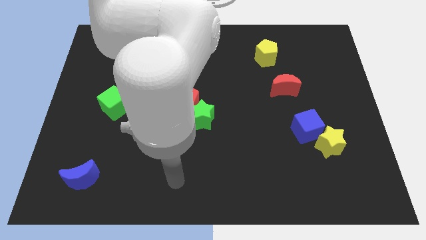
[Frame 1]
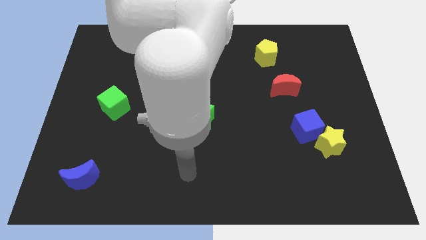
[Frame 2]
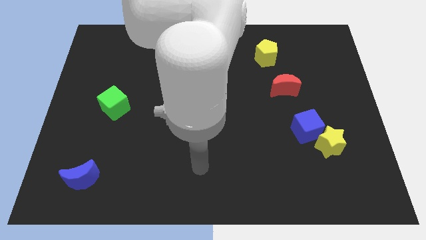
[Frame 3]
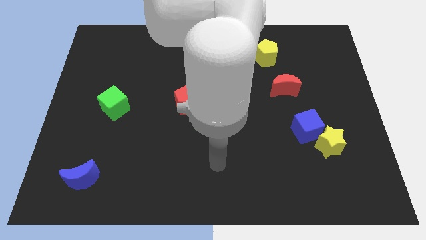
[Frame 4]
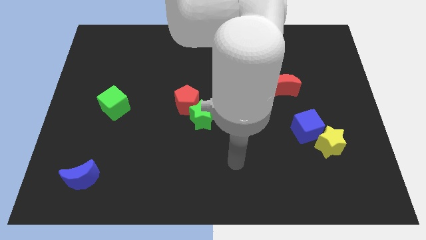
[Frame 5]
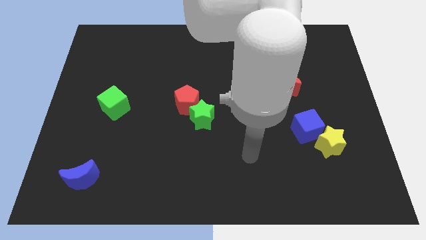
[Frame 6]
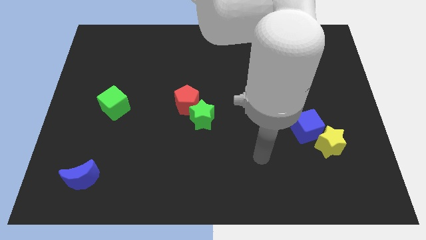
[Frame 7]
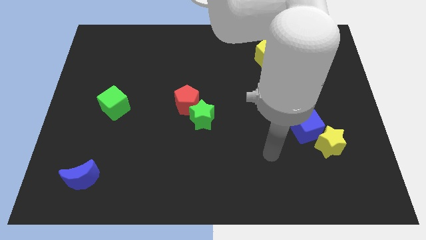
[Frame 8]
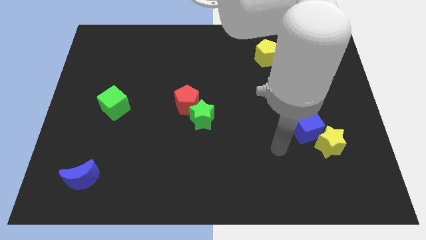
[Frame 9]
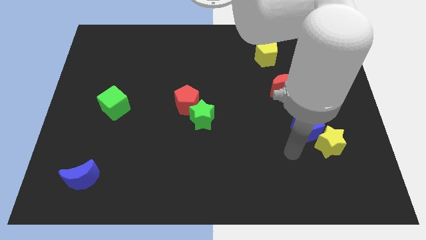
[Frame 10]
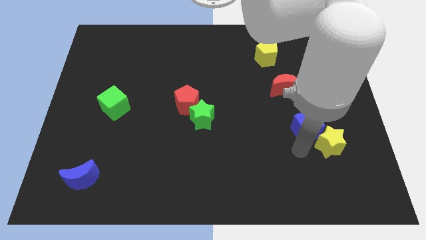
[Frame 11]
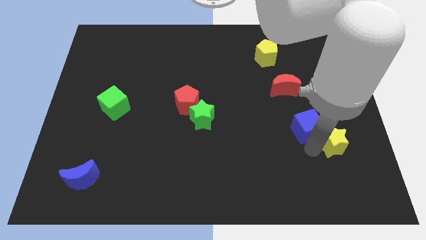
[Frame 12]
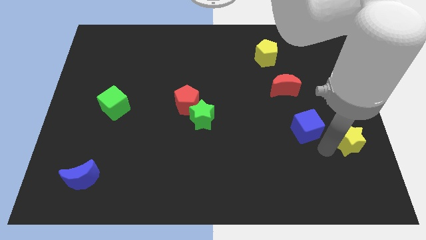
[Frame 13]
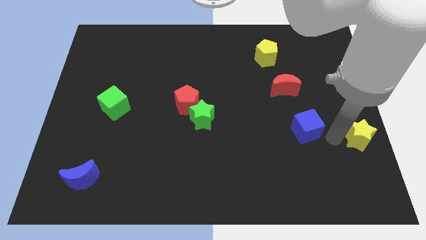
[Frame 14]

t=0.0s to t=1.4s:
move the blue cube away from the yellow star

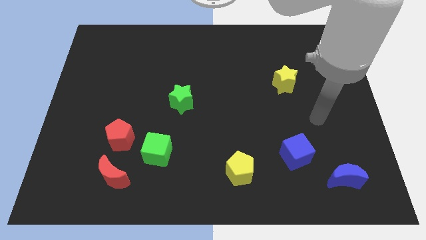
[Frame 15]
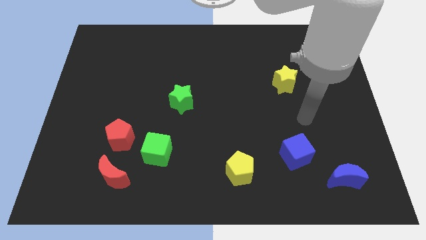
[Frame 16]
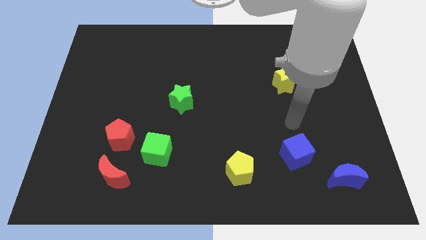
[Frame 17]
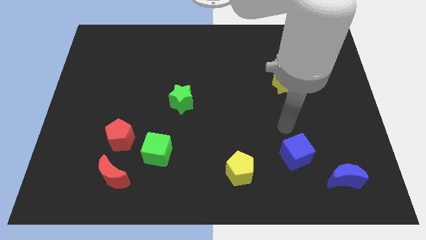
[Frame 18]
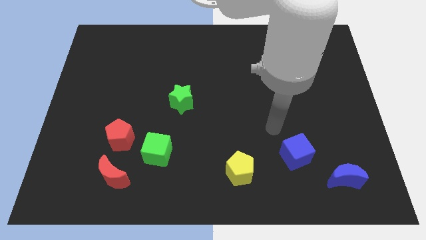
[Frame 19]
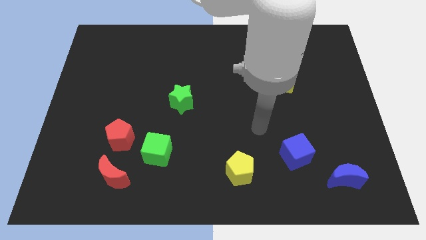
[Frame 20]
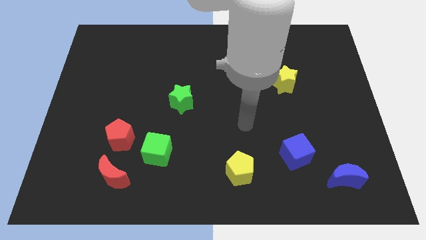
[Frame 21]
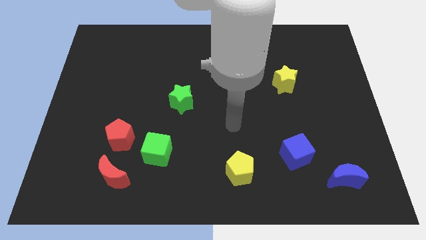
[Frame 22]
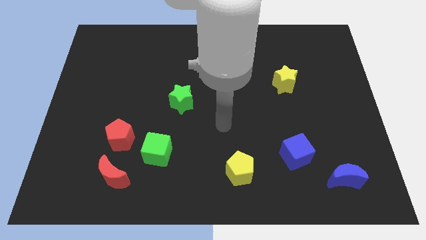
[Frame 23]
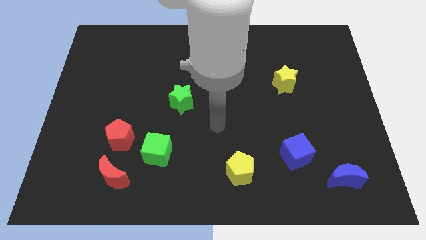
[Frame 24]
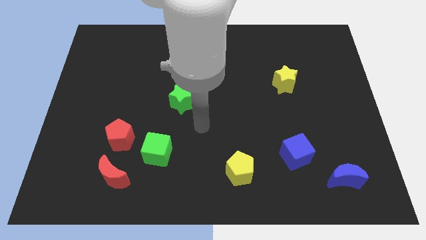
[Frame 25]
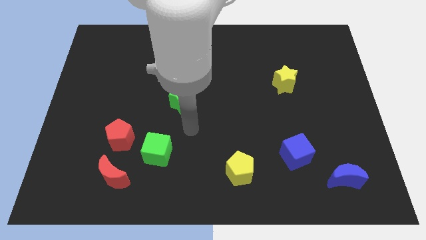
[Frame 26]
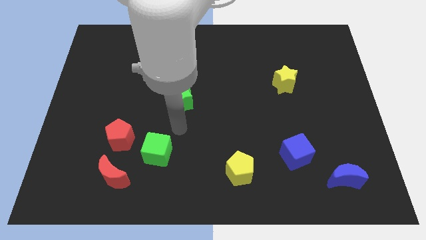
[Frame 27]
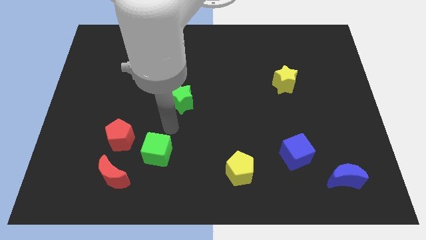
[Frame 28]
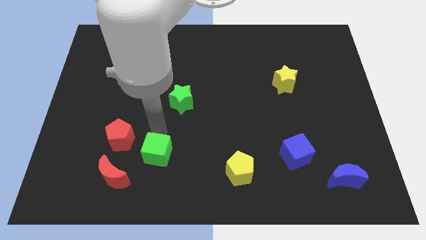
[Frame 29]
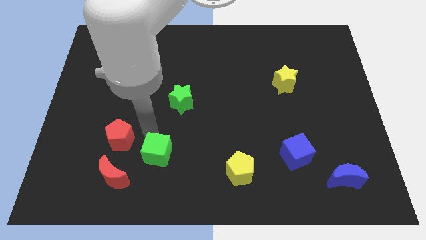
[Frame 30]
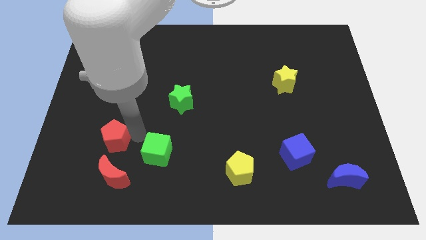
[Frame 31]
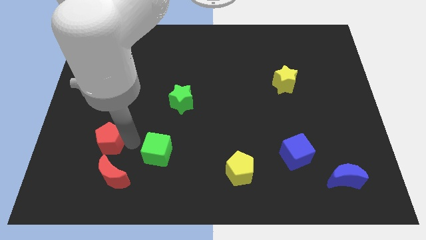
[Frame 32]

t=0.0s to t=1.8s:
move the green cube away from the red pentagon

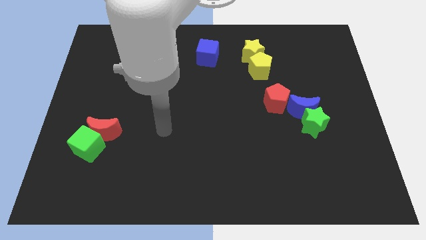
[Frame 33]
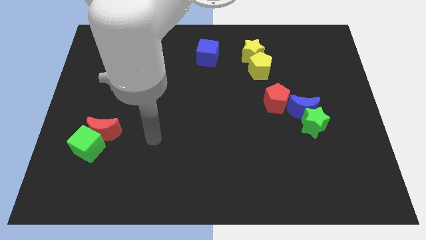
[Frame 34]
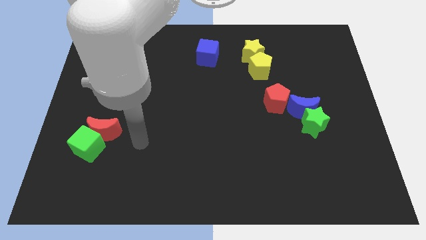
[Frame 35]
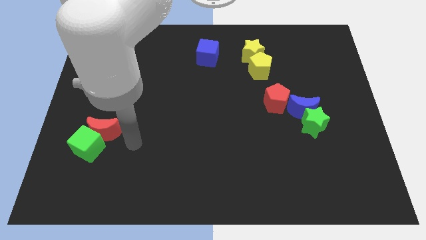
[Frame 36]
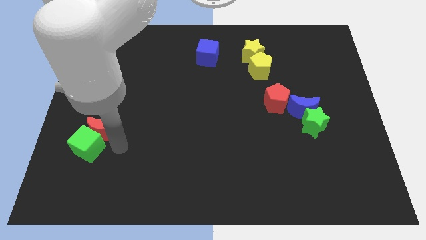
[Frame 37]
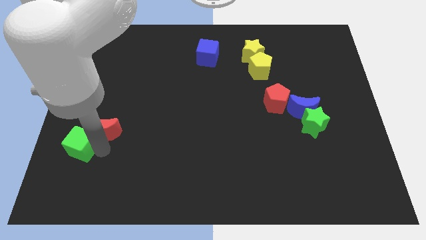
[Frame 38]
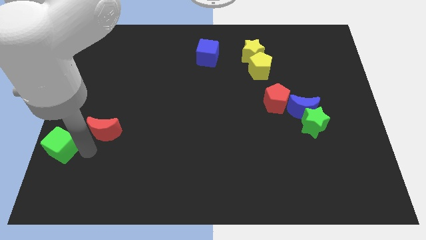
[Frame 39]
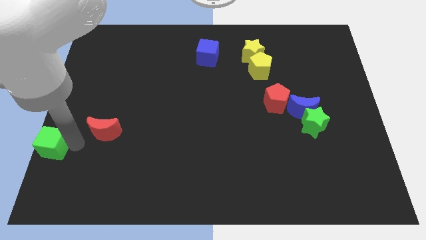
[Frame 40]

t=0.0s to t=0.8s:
move the red moon away from the green cube

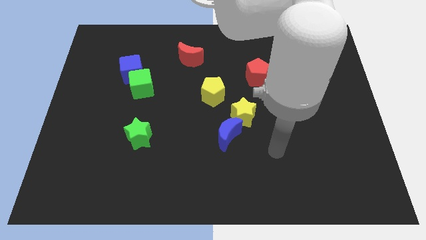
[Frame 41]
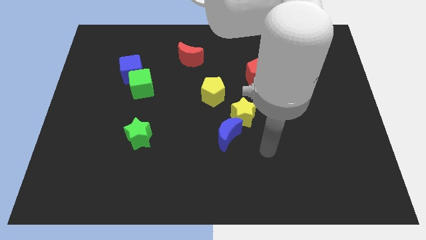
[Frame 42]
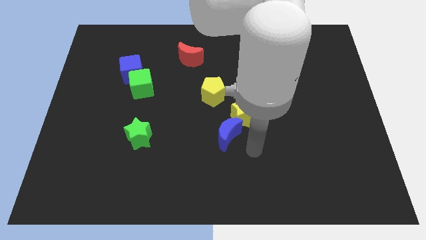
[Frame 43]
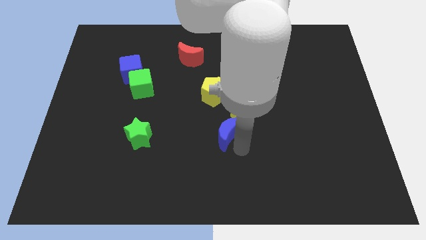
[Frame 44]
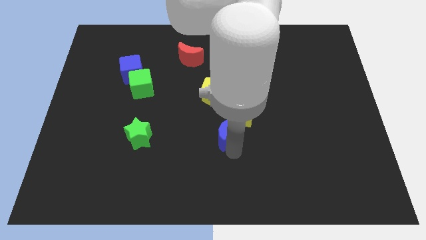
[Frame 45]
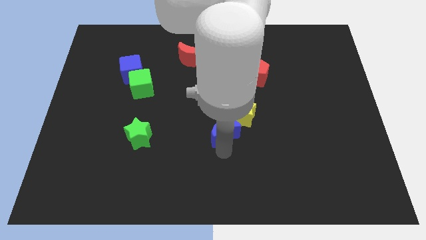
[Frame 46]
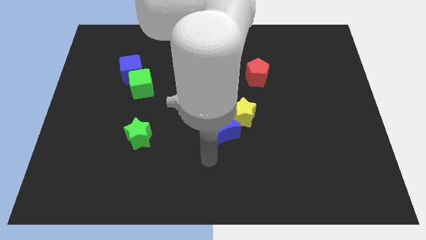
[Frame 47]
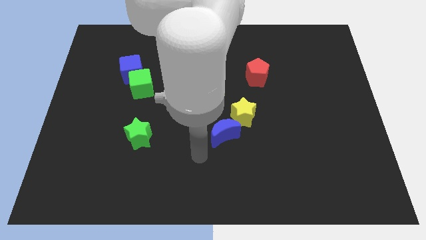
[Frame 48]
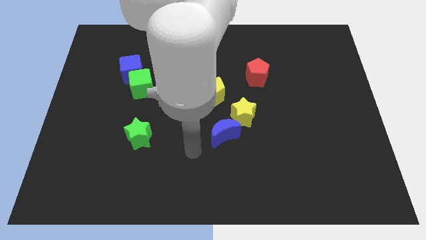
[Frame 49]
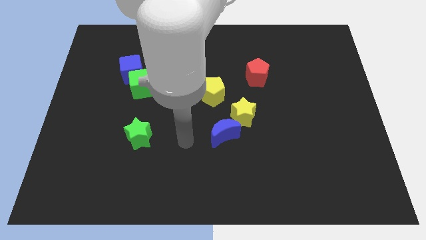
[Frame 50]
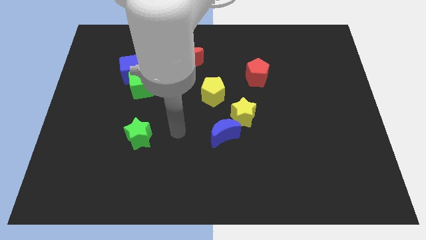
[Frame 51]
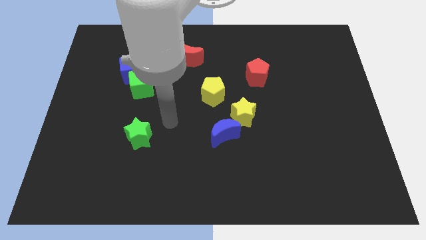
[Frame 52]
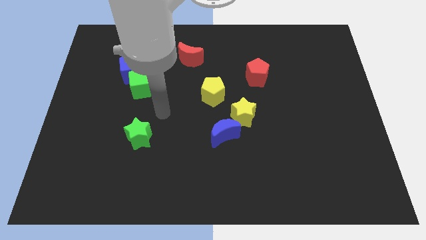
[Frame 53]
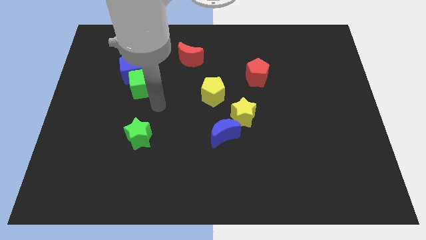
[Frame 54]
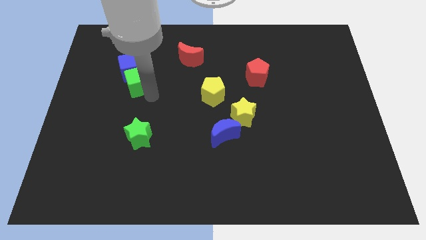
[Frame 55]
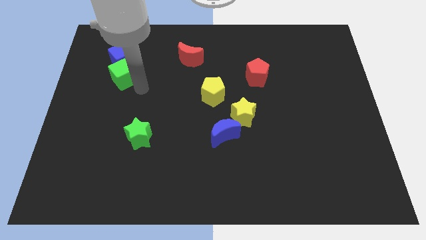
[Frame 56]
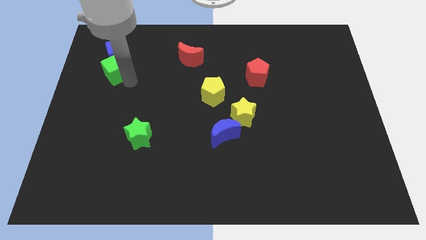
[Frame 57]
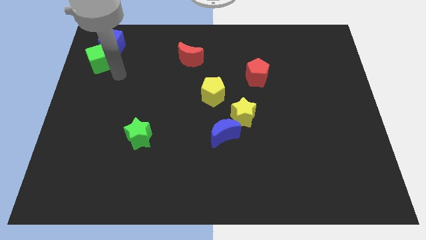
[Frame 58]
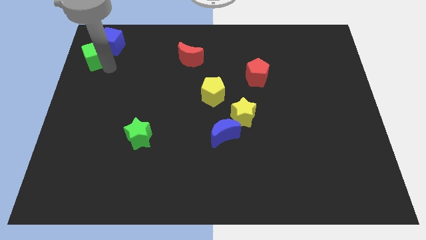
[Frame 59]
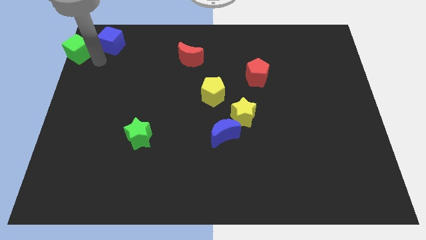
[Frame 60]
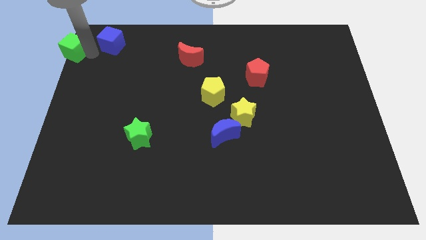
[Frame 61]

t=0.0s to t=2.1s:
move the blue cube away from the green cube

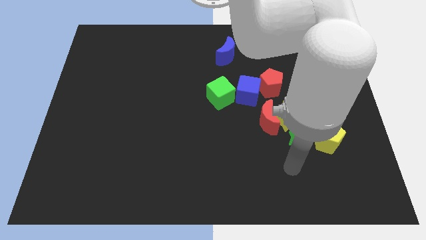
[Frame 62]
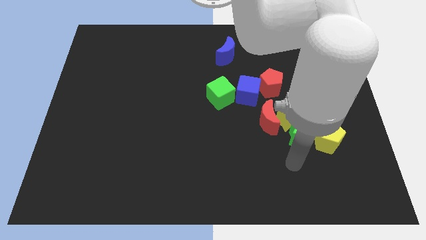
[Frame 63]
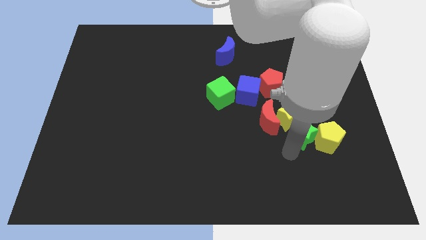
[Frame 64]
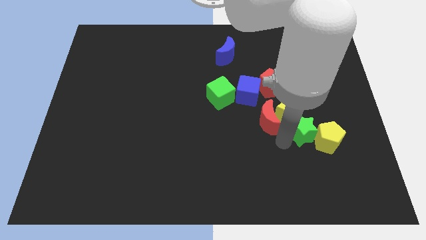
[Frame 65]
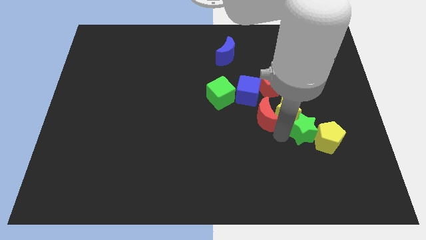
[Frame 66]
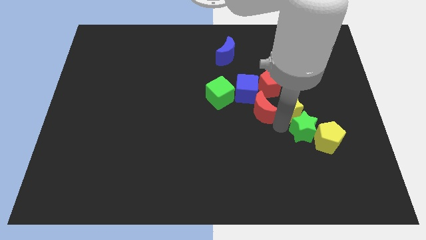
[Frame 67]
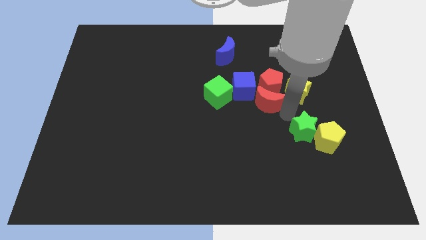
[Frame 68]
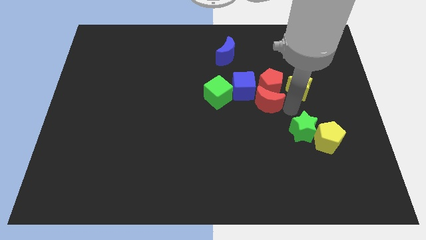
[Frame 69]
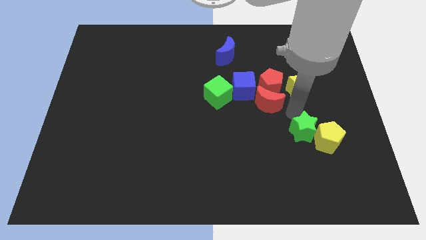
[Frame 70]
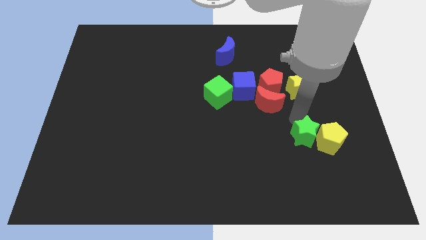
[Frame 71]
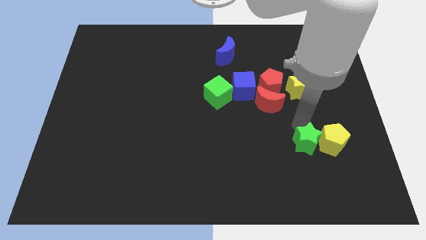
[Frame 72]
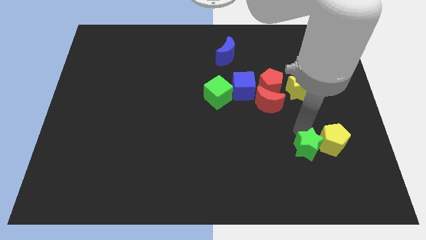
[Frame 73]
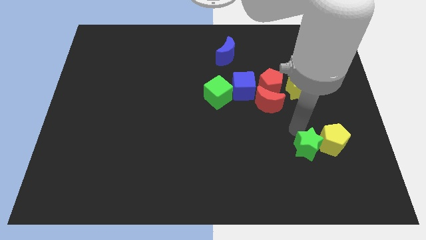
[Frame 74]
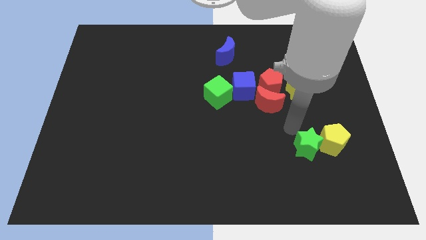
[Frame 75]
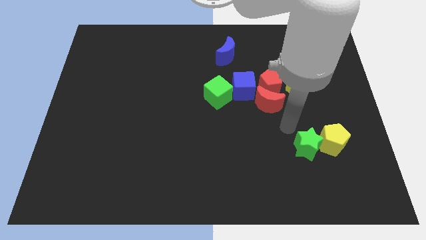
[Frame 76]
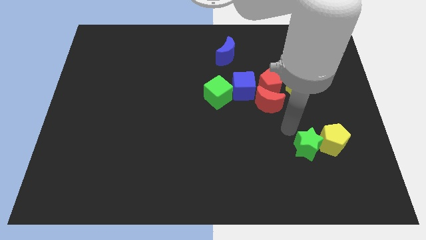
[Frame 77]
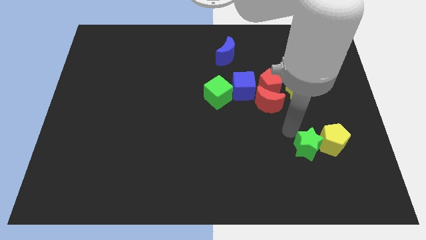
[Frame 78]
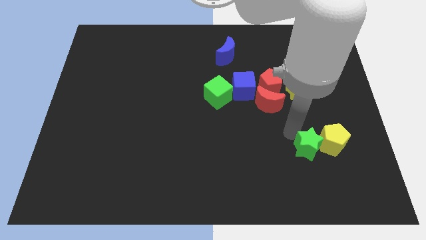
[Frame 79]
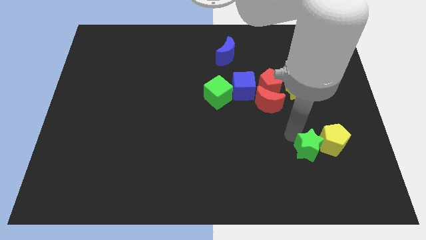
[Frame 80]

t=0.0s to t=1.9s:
pull the green star apart from the group

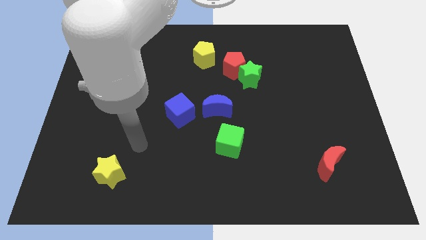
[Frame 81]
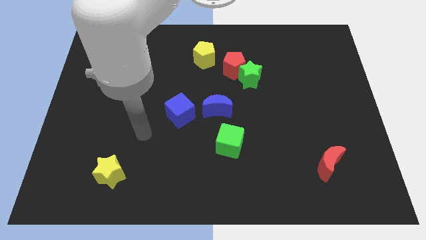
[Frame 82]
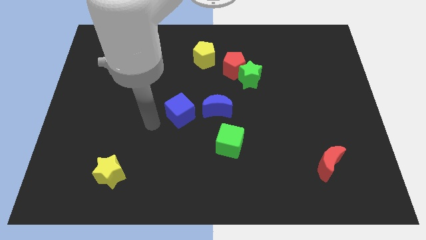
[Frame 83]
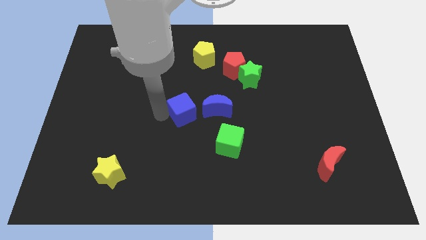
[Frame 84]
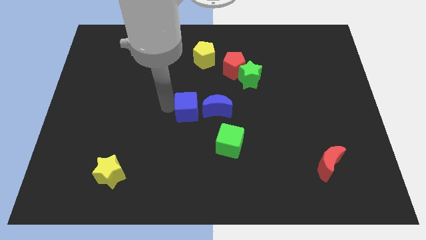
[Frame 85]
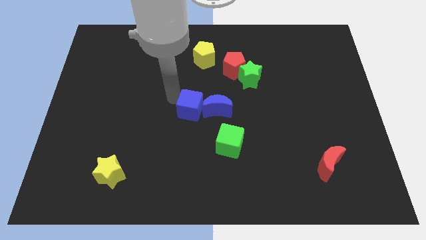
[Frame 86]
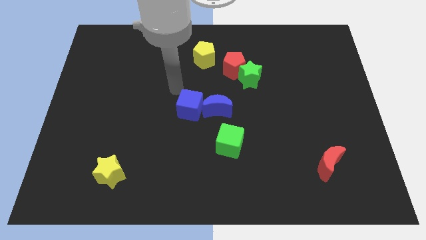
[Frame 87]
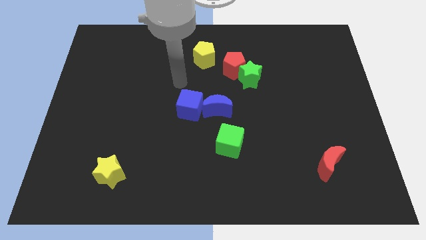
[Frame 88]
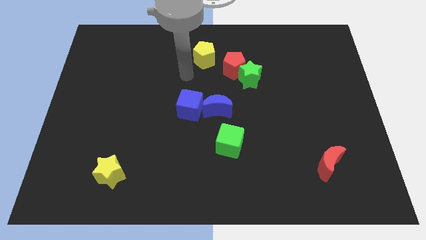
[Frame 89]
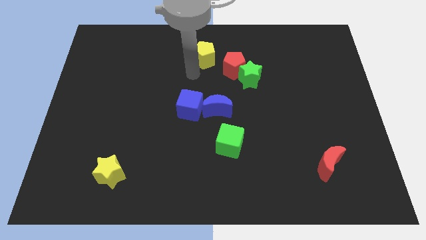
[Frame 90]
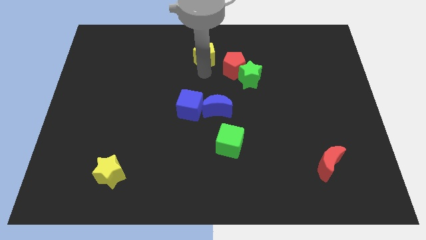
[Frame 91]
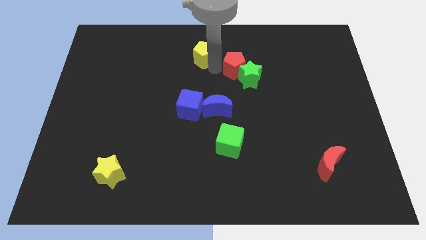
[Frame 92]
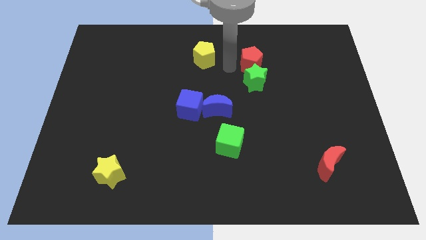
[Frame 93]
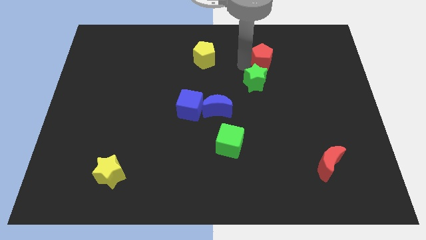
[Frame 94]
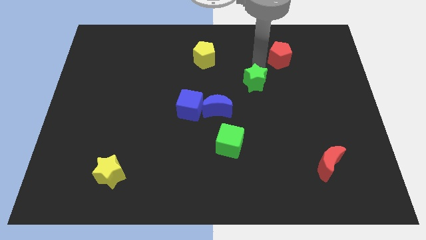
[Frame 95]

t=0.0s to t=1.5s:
move the green star away from the red pentagon
